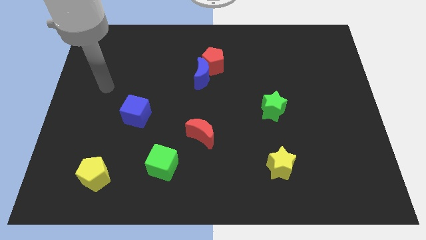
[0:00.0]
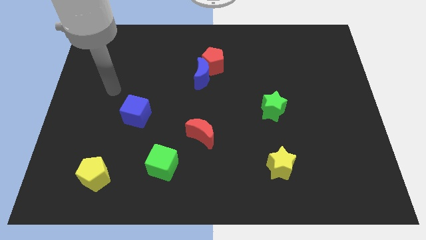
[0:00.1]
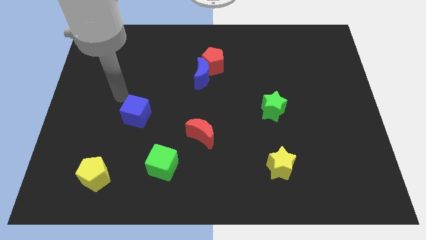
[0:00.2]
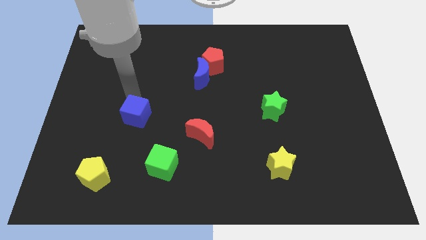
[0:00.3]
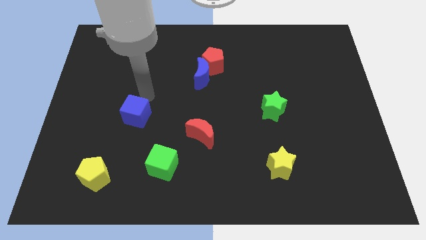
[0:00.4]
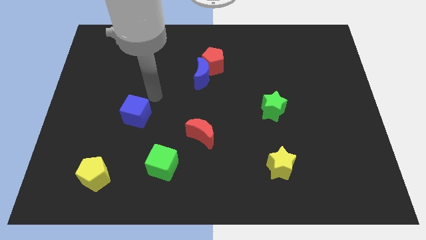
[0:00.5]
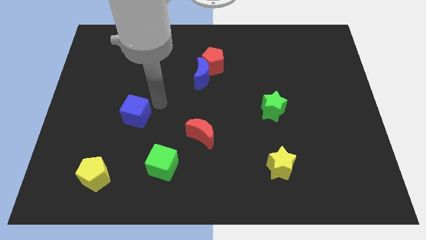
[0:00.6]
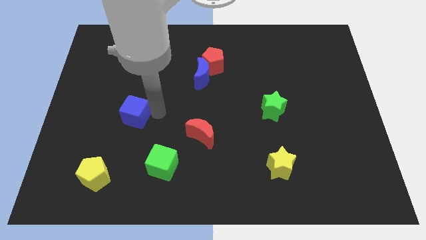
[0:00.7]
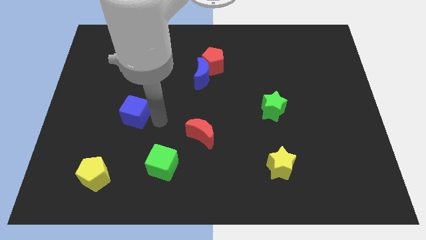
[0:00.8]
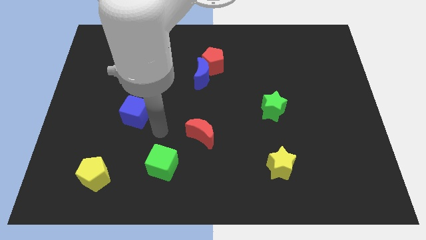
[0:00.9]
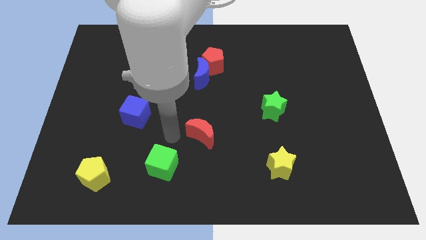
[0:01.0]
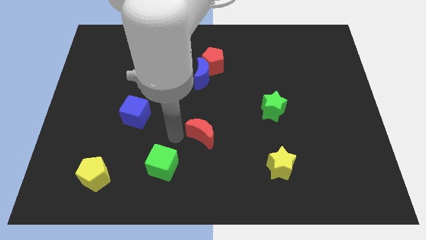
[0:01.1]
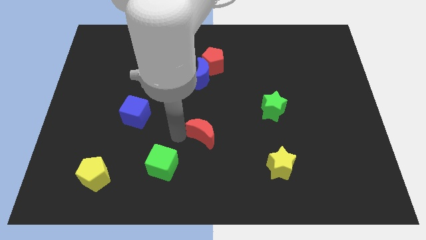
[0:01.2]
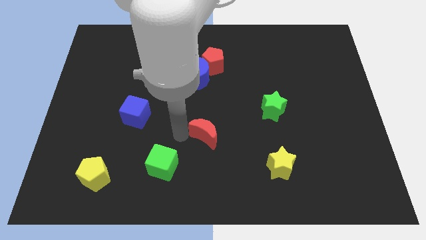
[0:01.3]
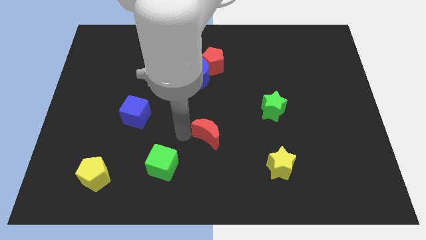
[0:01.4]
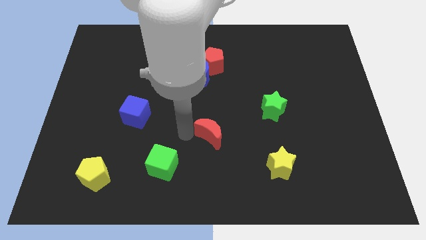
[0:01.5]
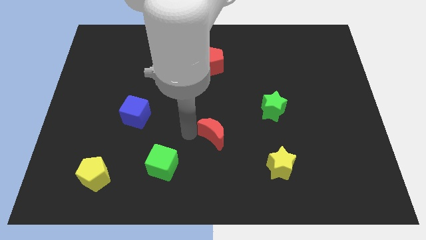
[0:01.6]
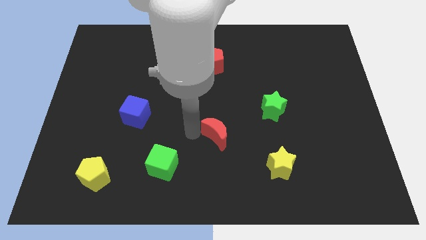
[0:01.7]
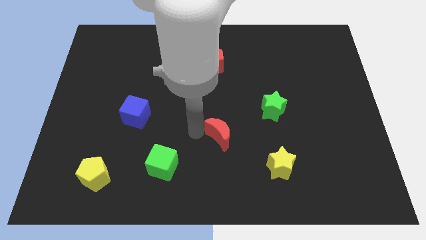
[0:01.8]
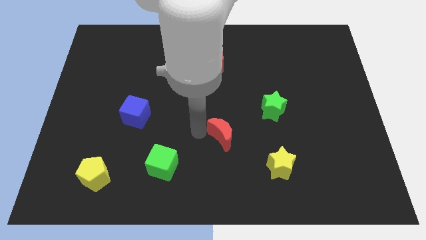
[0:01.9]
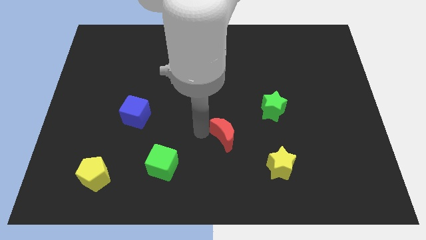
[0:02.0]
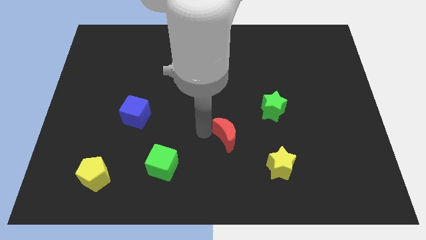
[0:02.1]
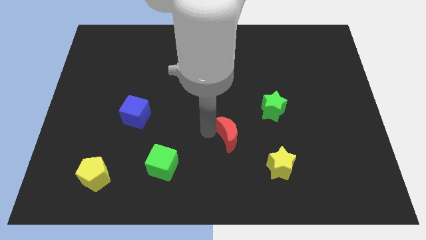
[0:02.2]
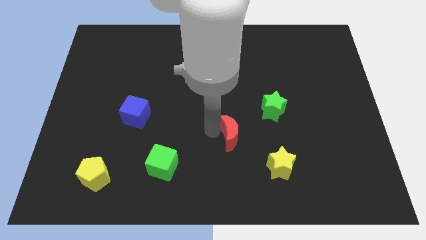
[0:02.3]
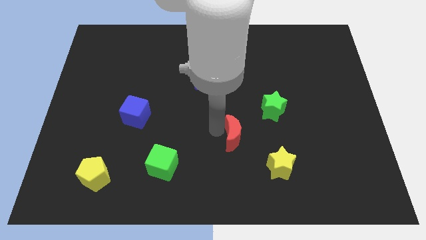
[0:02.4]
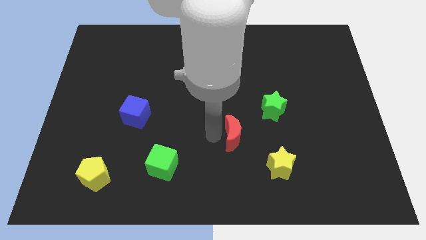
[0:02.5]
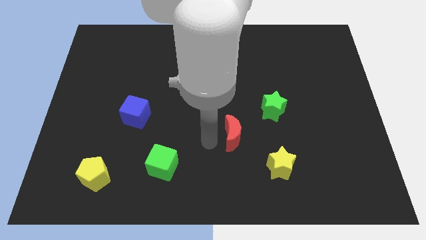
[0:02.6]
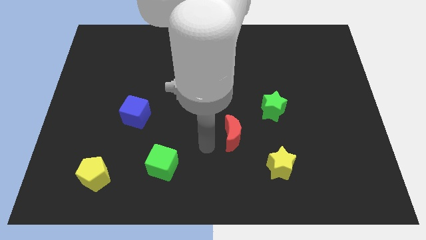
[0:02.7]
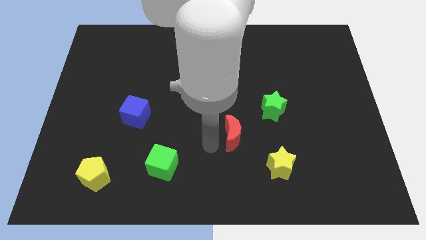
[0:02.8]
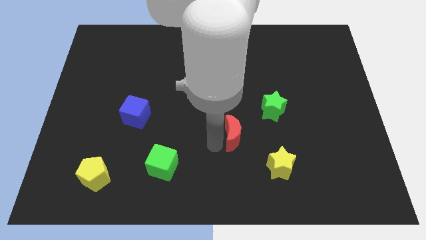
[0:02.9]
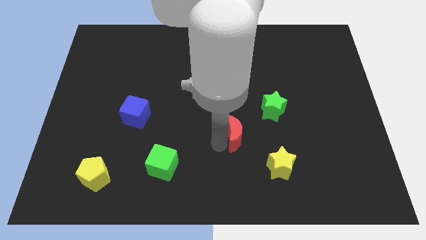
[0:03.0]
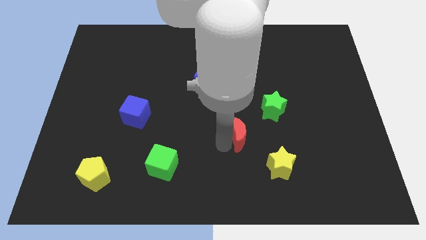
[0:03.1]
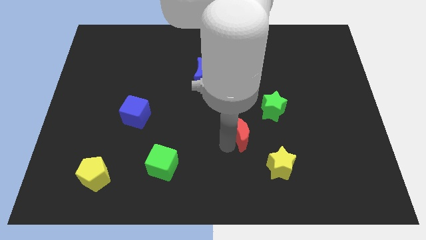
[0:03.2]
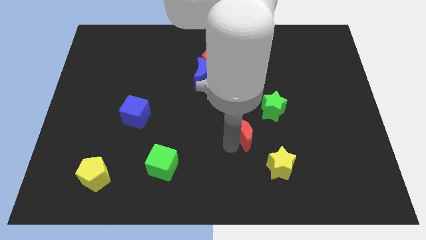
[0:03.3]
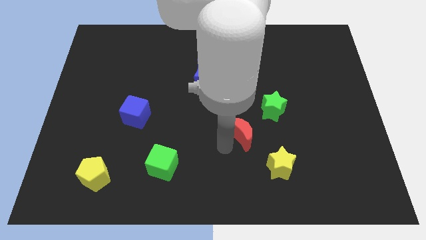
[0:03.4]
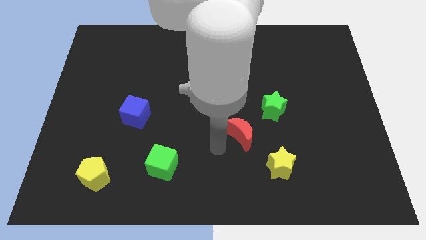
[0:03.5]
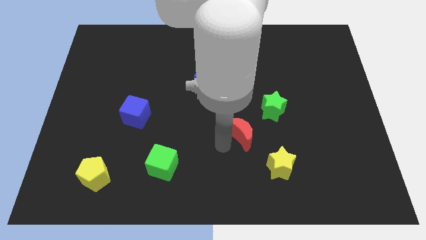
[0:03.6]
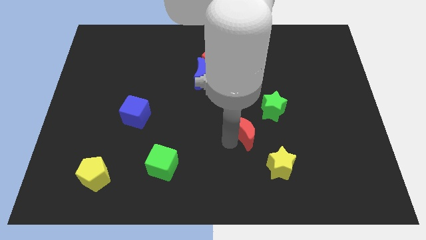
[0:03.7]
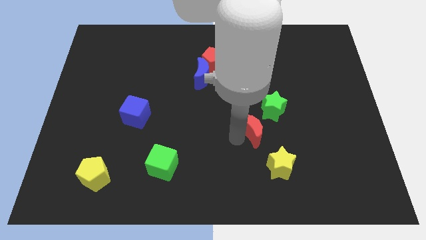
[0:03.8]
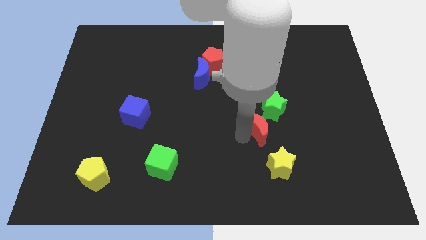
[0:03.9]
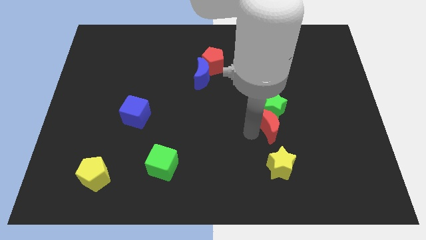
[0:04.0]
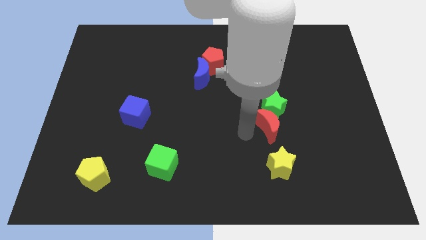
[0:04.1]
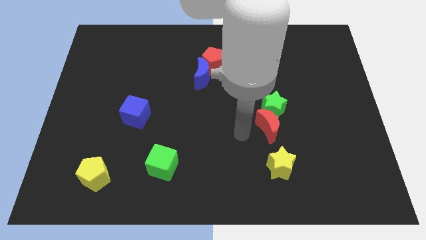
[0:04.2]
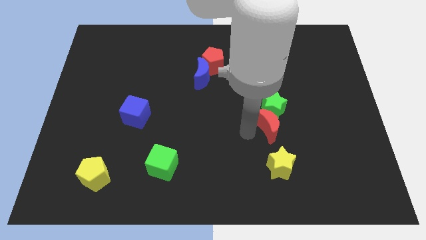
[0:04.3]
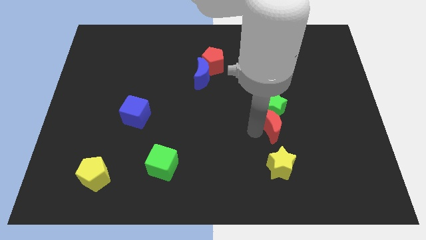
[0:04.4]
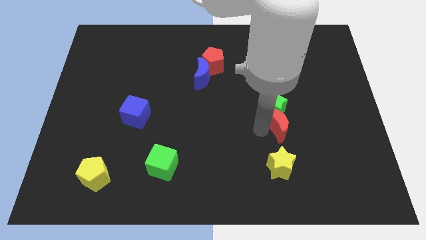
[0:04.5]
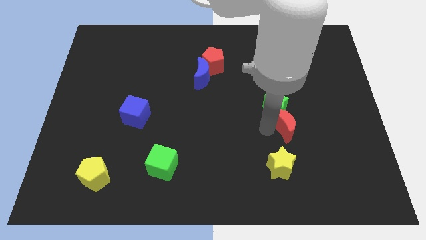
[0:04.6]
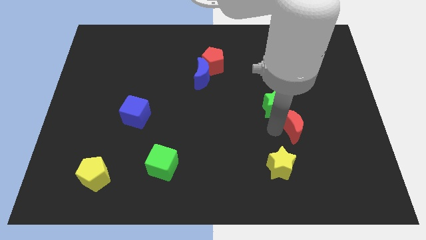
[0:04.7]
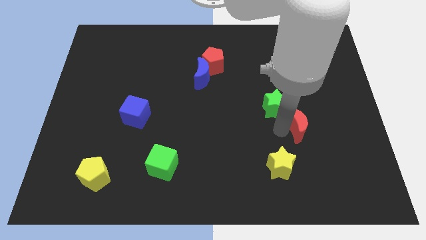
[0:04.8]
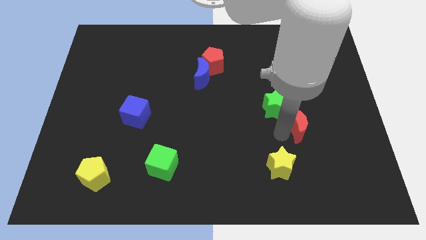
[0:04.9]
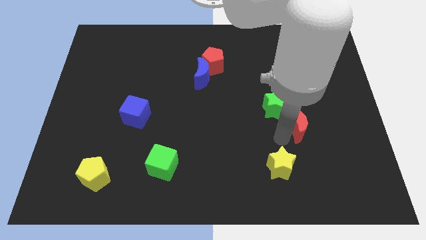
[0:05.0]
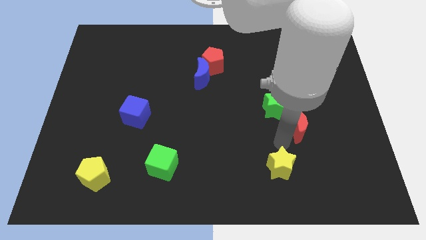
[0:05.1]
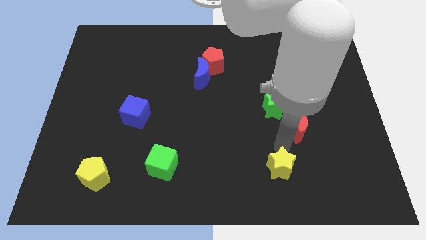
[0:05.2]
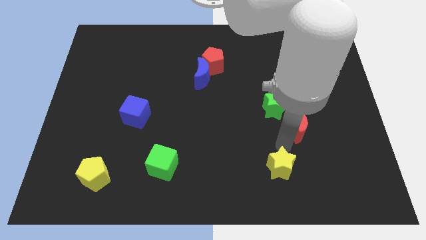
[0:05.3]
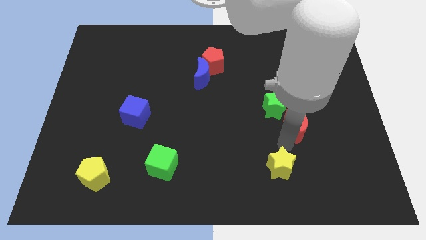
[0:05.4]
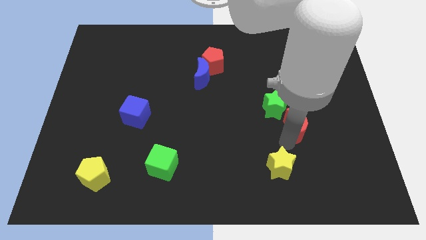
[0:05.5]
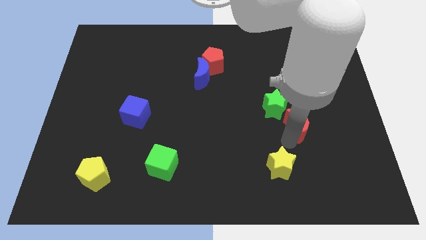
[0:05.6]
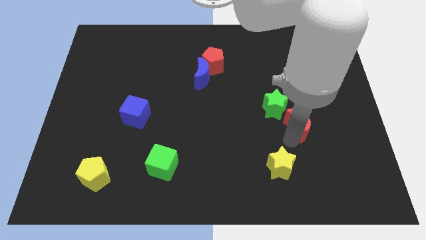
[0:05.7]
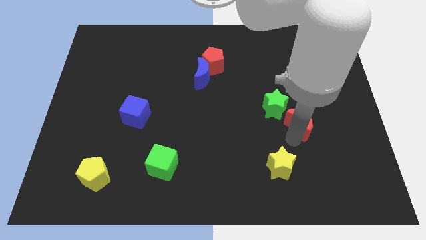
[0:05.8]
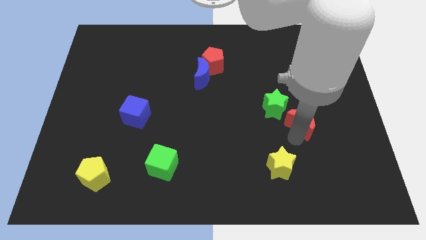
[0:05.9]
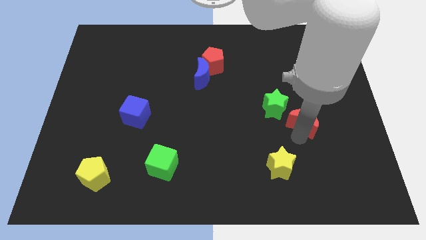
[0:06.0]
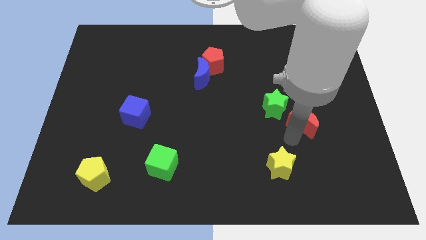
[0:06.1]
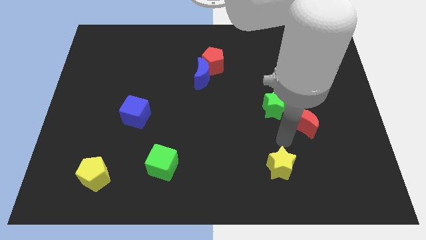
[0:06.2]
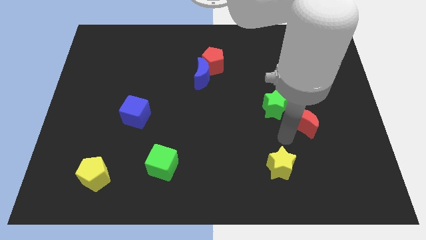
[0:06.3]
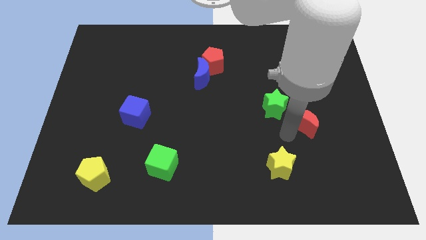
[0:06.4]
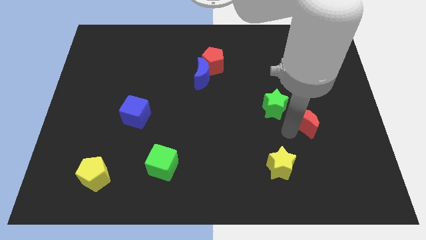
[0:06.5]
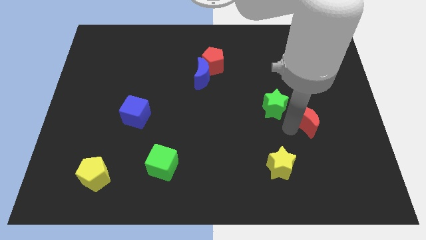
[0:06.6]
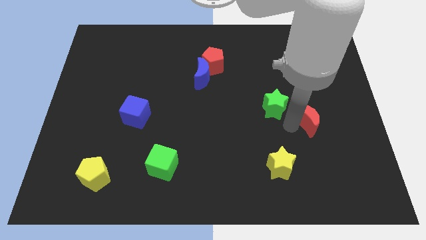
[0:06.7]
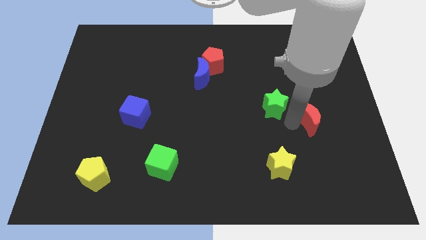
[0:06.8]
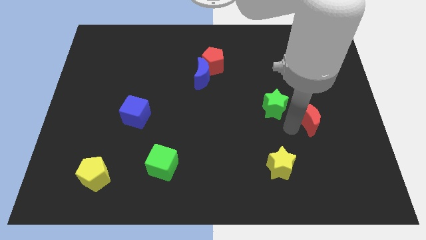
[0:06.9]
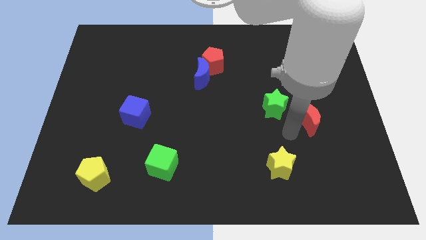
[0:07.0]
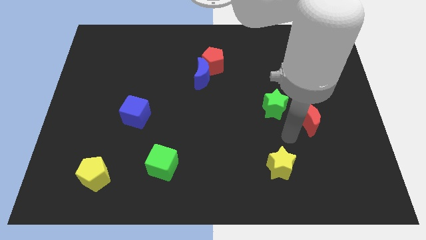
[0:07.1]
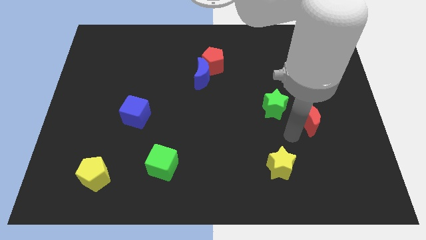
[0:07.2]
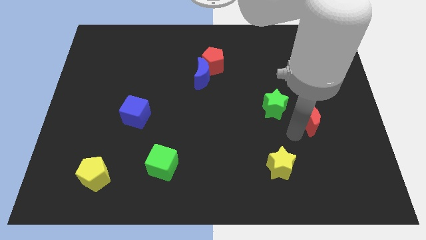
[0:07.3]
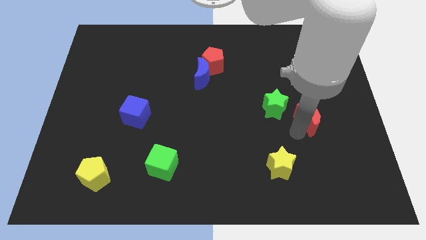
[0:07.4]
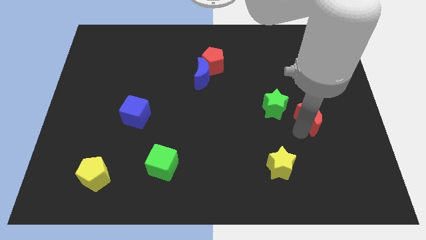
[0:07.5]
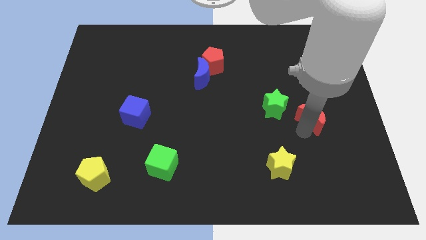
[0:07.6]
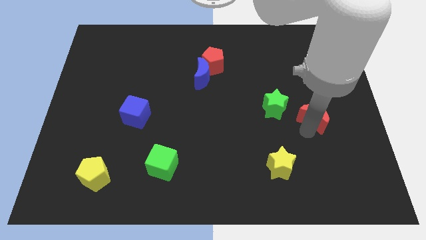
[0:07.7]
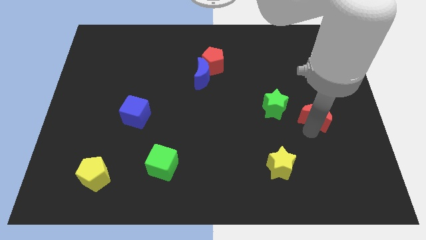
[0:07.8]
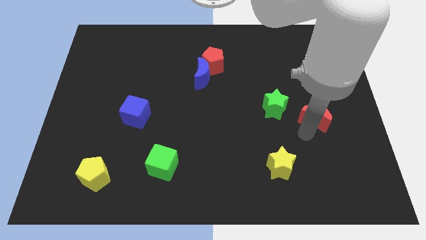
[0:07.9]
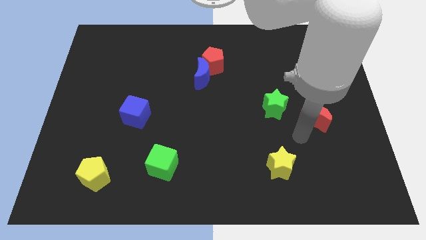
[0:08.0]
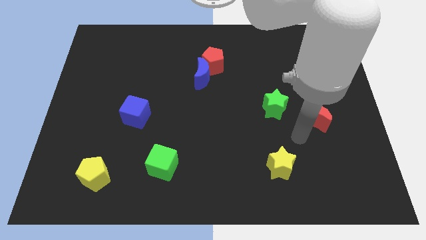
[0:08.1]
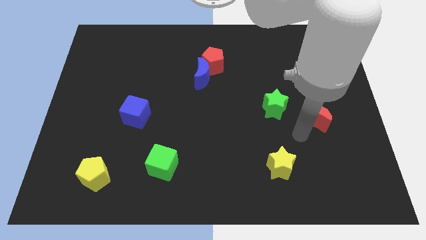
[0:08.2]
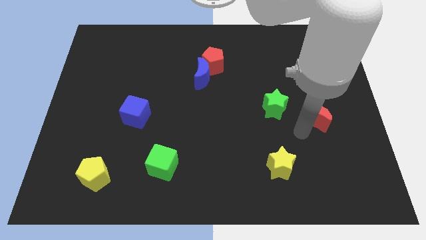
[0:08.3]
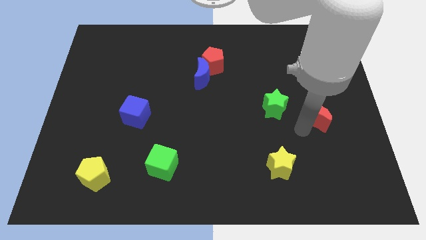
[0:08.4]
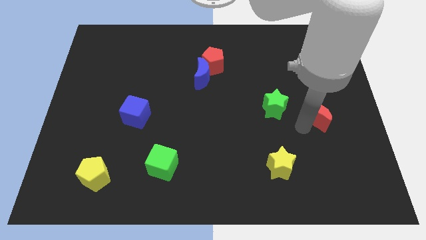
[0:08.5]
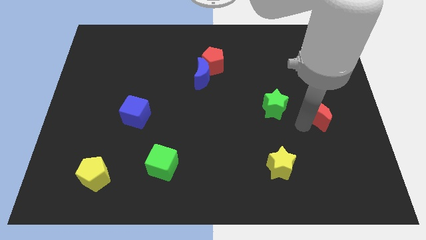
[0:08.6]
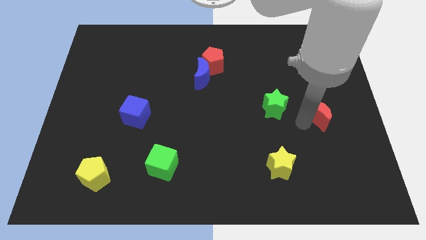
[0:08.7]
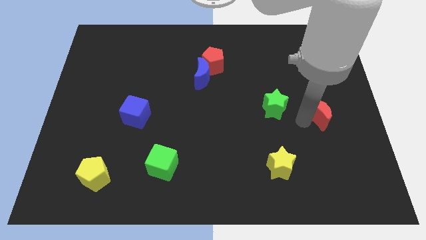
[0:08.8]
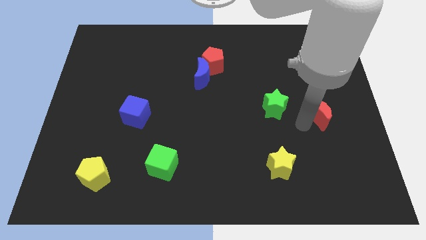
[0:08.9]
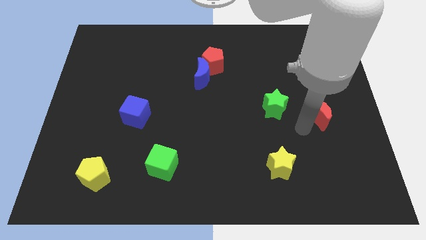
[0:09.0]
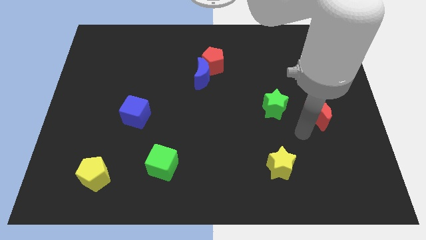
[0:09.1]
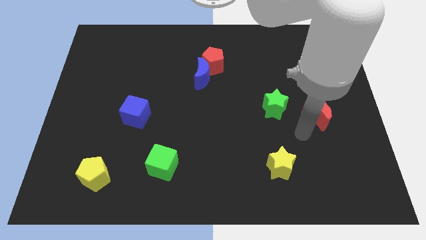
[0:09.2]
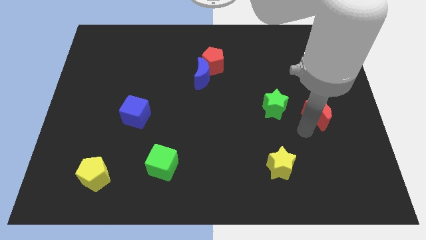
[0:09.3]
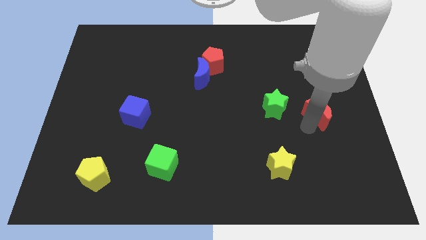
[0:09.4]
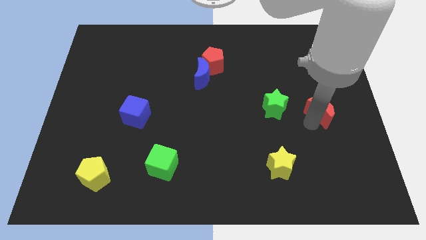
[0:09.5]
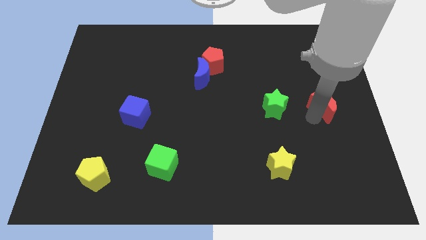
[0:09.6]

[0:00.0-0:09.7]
put the red moon to the right side
